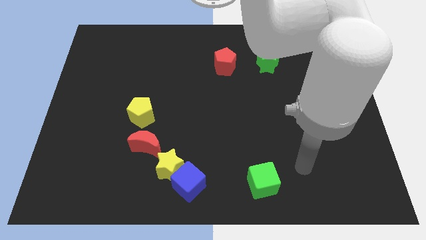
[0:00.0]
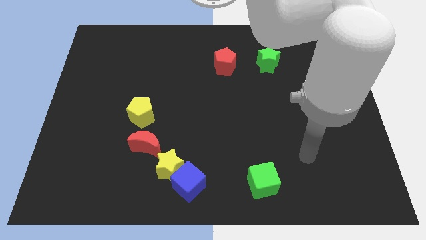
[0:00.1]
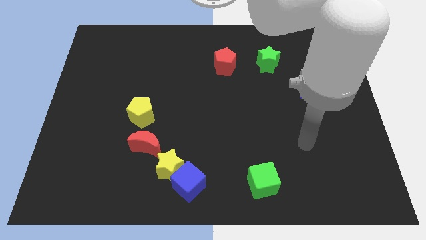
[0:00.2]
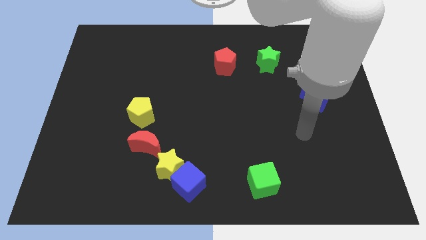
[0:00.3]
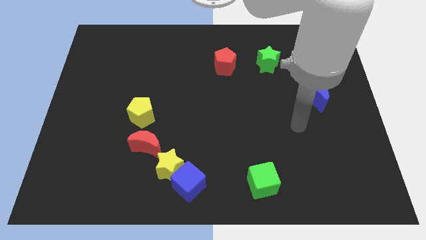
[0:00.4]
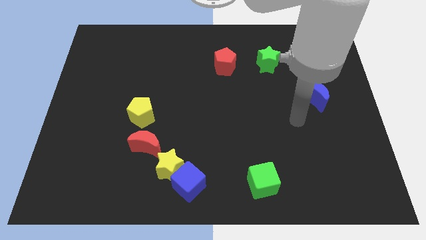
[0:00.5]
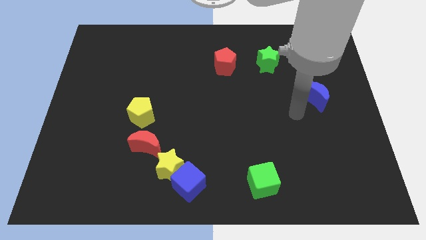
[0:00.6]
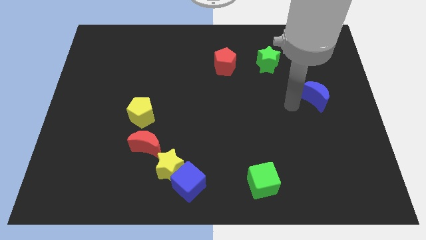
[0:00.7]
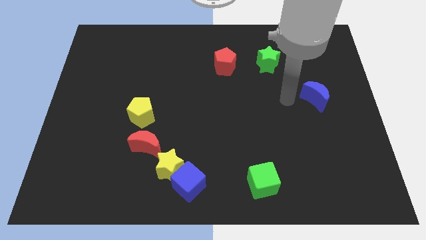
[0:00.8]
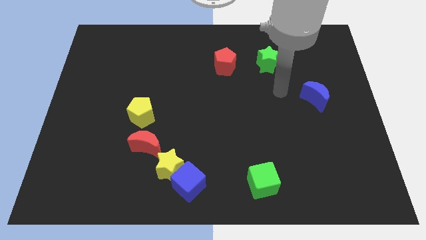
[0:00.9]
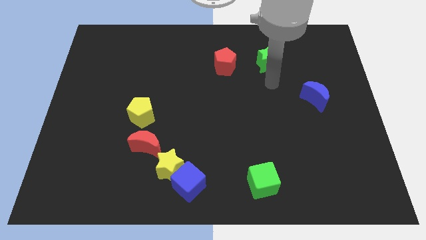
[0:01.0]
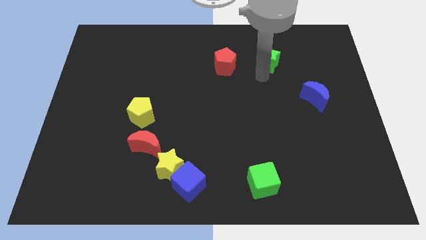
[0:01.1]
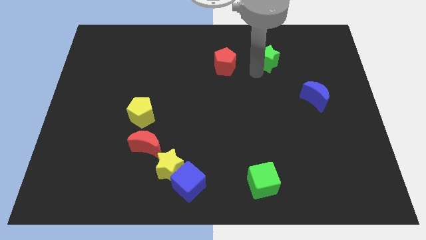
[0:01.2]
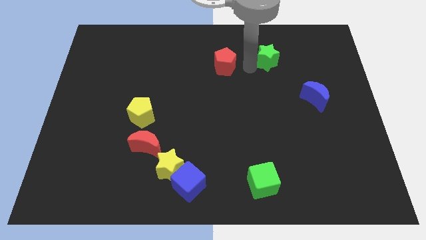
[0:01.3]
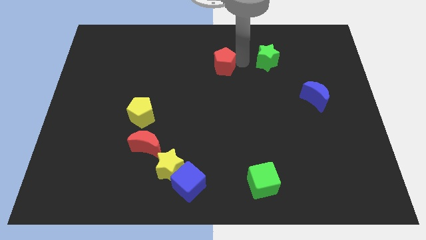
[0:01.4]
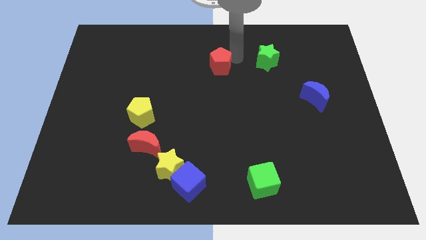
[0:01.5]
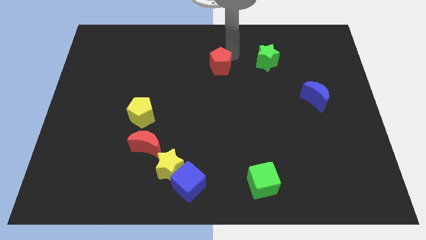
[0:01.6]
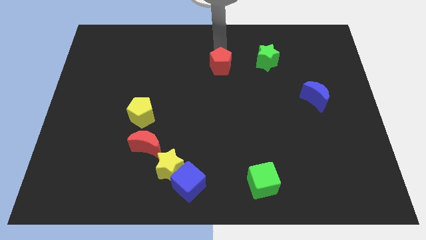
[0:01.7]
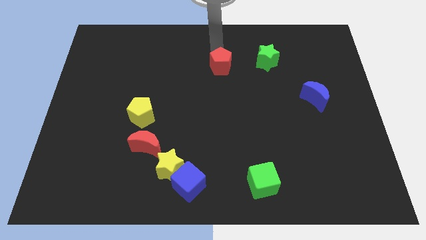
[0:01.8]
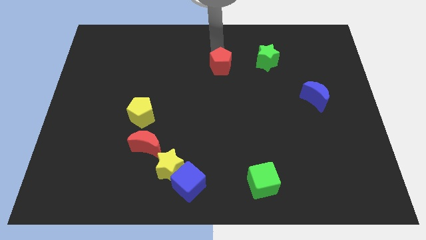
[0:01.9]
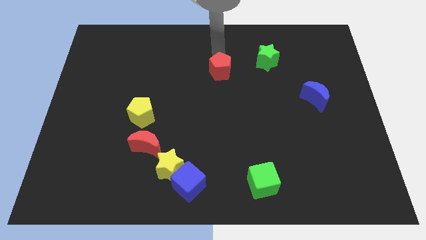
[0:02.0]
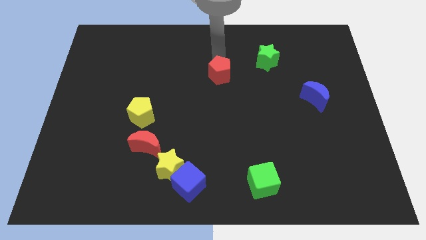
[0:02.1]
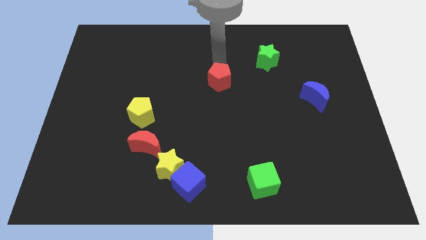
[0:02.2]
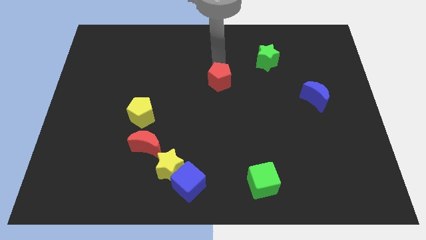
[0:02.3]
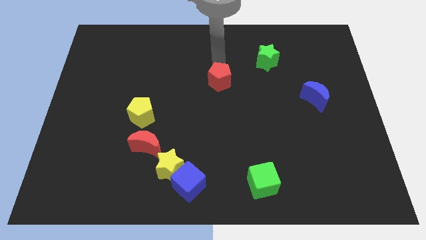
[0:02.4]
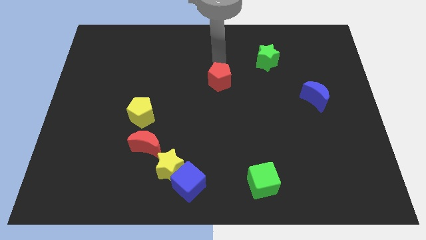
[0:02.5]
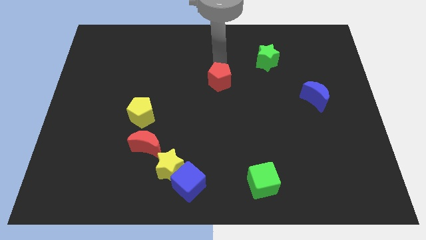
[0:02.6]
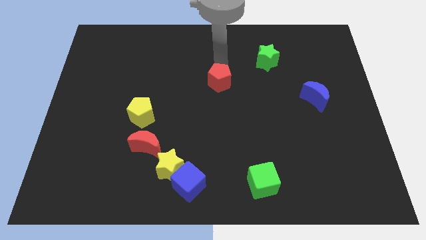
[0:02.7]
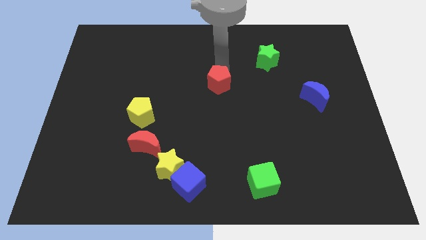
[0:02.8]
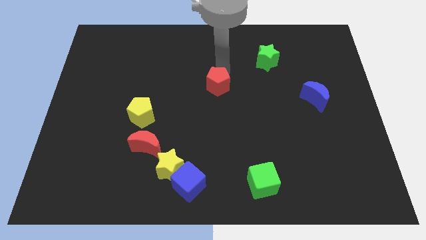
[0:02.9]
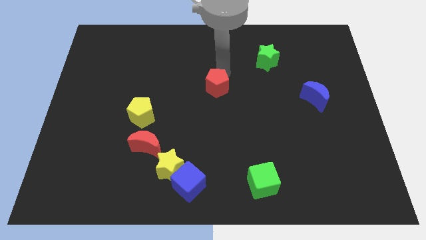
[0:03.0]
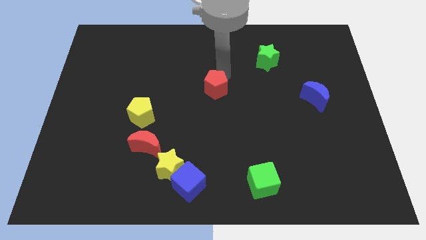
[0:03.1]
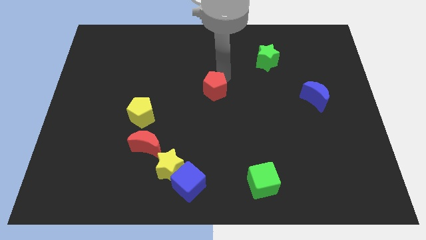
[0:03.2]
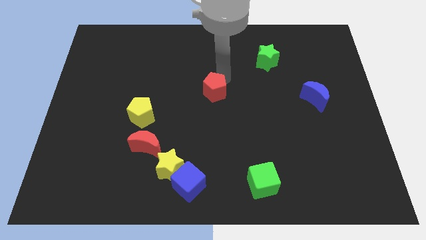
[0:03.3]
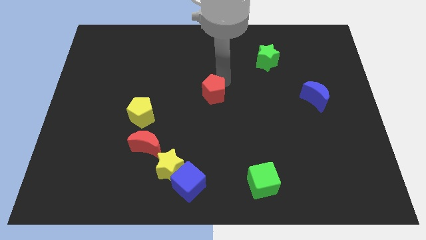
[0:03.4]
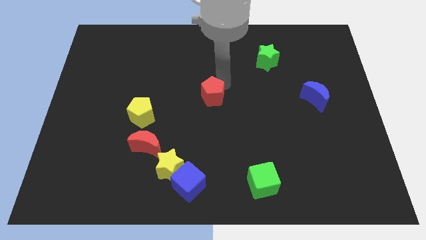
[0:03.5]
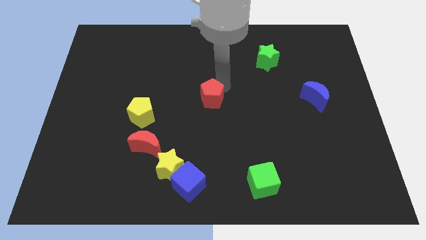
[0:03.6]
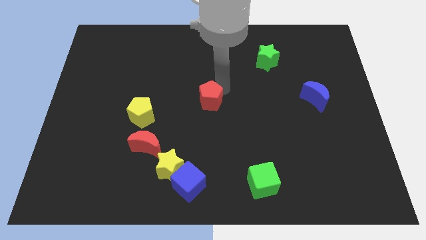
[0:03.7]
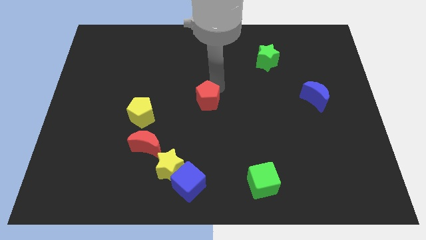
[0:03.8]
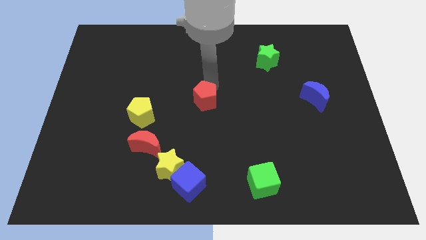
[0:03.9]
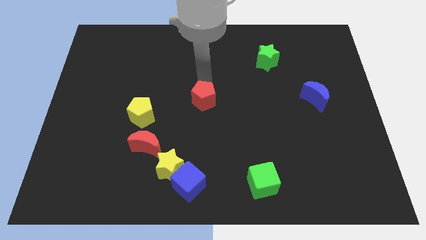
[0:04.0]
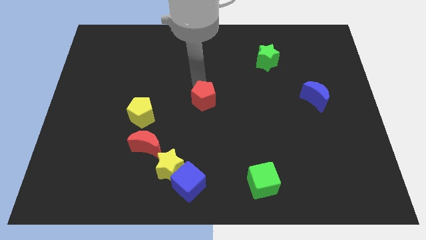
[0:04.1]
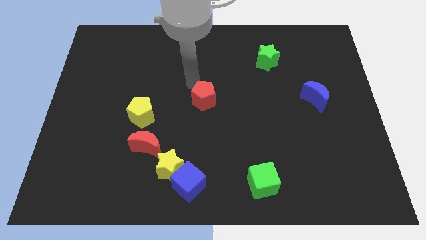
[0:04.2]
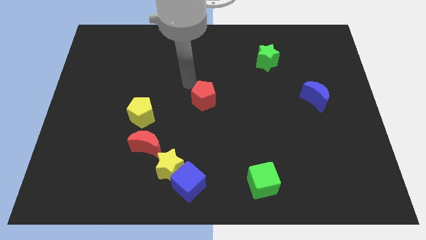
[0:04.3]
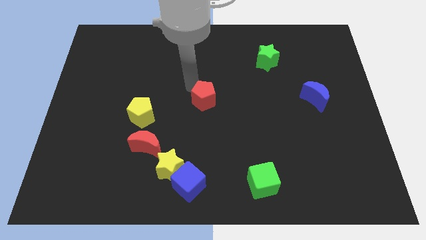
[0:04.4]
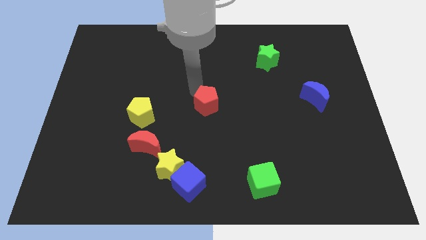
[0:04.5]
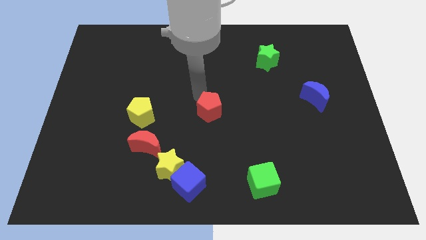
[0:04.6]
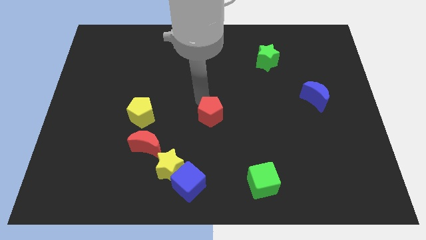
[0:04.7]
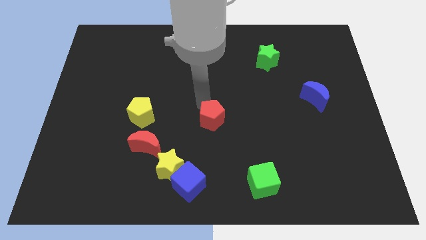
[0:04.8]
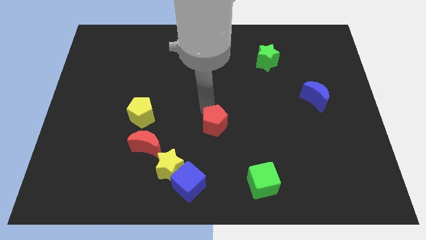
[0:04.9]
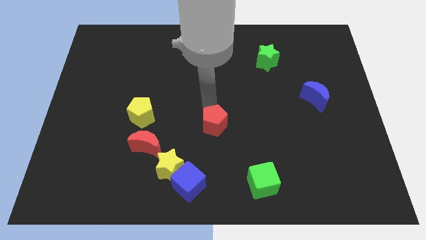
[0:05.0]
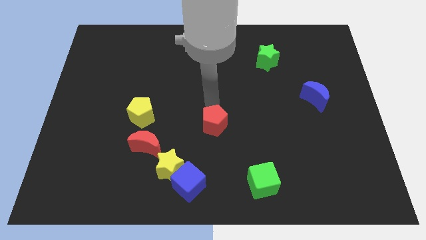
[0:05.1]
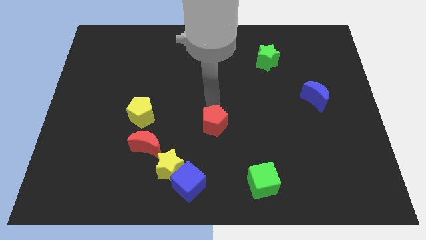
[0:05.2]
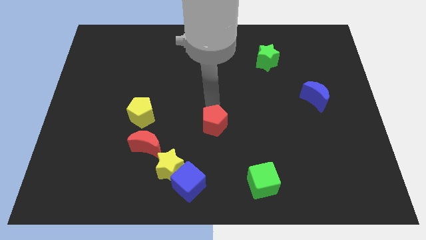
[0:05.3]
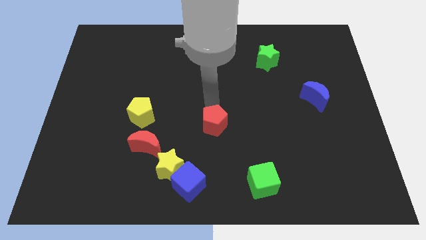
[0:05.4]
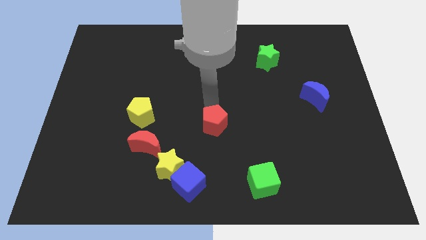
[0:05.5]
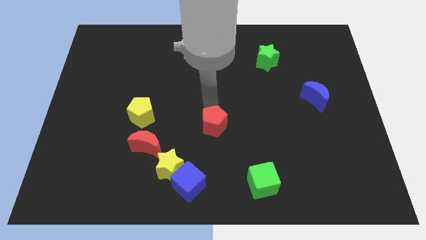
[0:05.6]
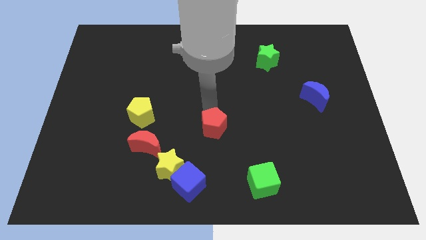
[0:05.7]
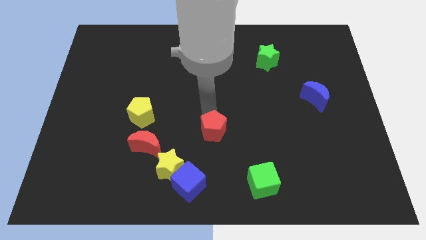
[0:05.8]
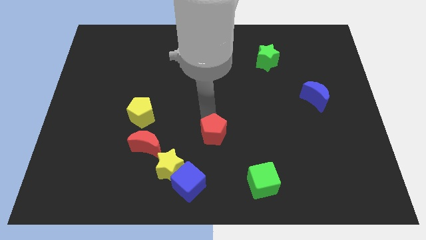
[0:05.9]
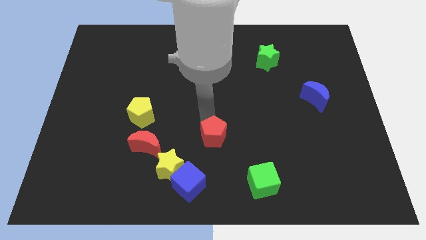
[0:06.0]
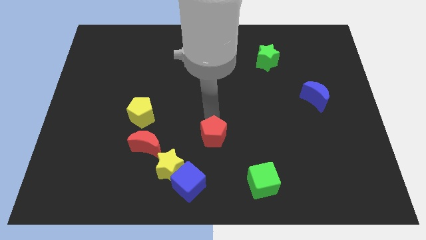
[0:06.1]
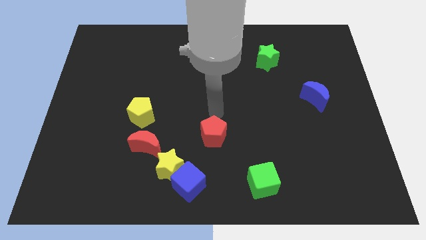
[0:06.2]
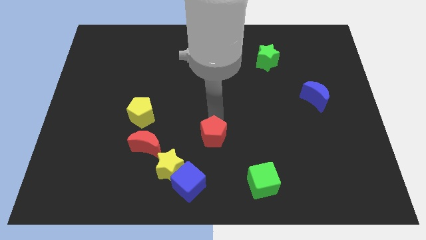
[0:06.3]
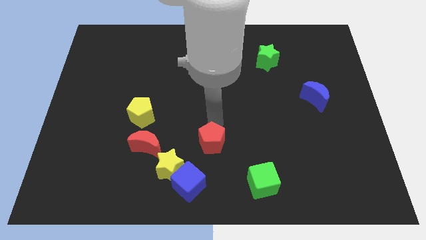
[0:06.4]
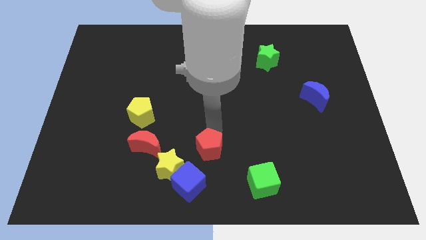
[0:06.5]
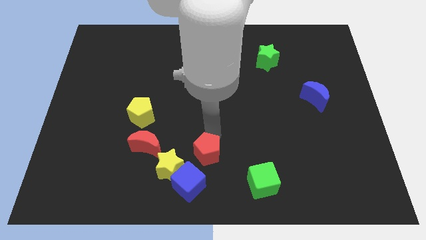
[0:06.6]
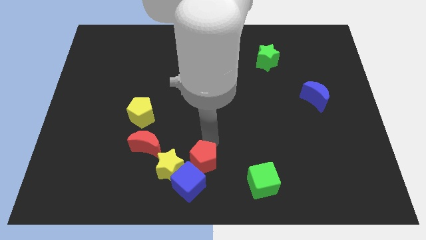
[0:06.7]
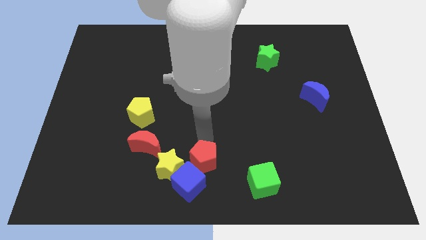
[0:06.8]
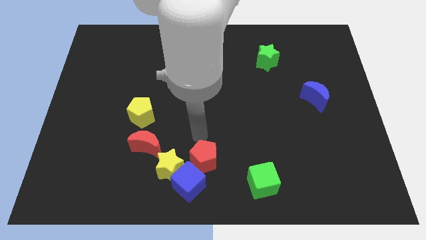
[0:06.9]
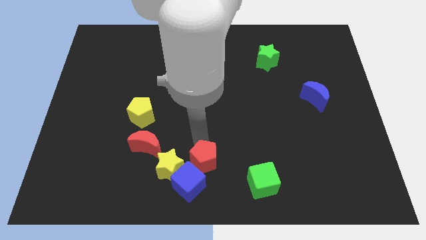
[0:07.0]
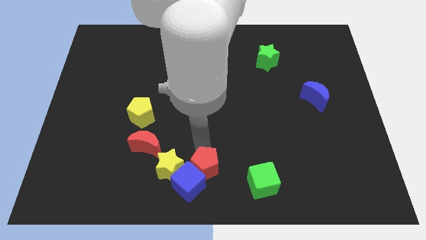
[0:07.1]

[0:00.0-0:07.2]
push the red pentagon to the left of the green cube

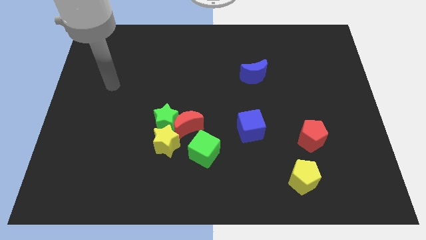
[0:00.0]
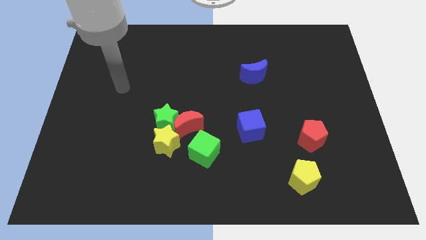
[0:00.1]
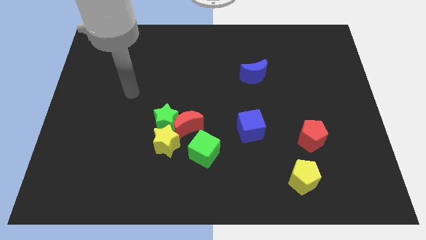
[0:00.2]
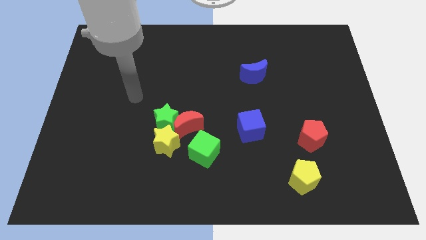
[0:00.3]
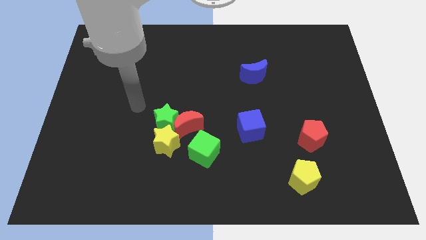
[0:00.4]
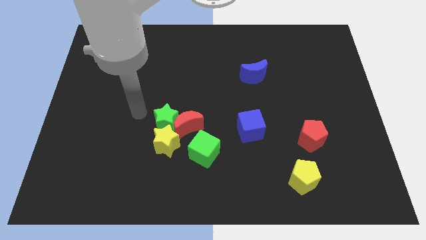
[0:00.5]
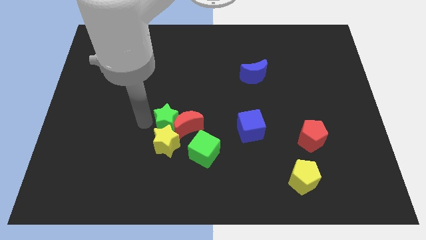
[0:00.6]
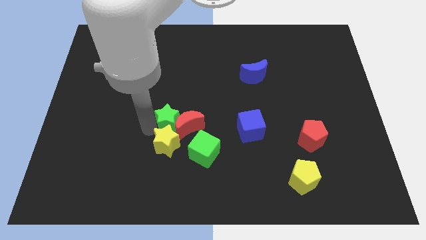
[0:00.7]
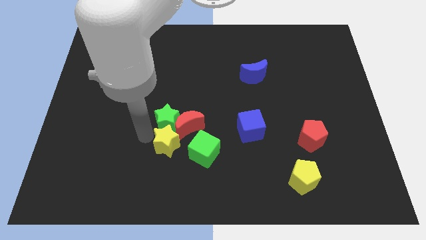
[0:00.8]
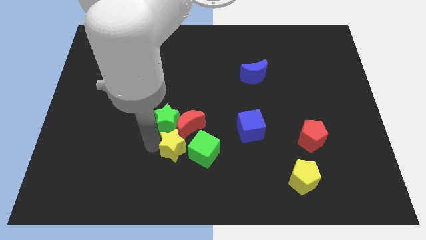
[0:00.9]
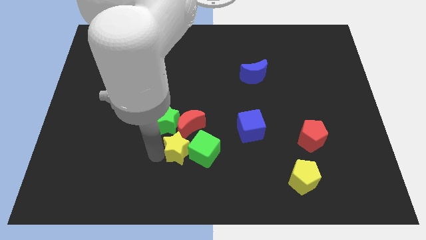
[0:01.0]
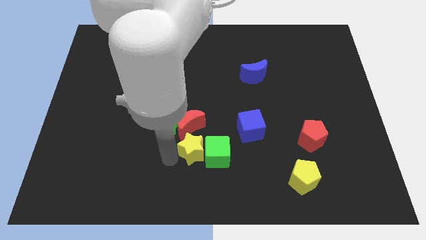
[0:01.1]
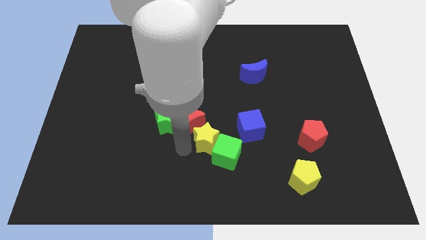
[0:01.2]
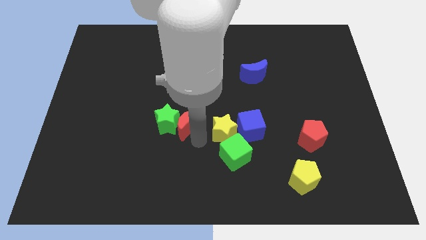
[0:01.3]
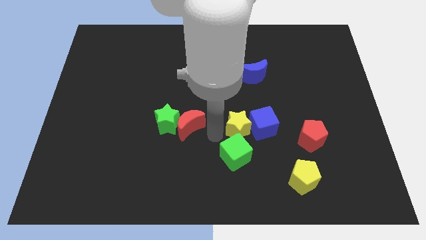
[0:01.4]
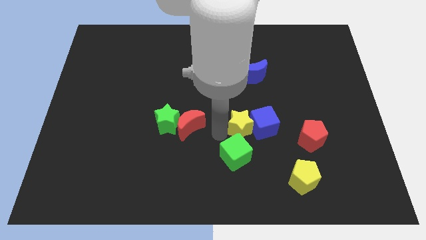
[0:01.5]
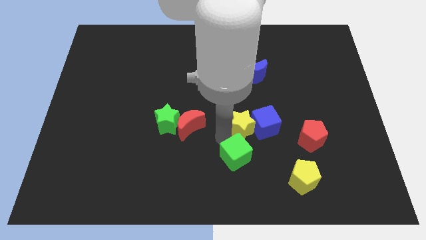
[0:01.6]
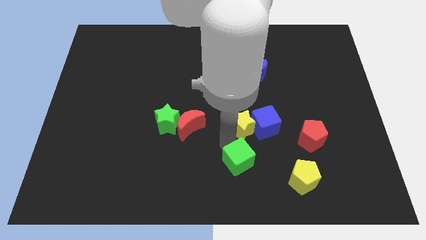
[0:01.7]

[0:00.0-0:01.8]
push the green cube to the left side of the yellow pentagon
